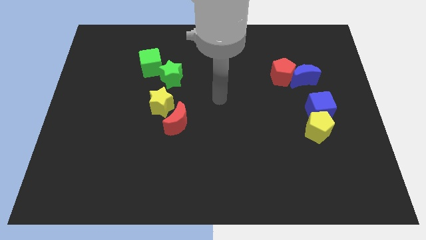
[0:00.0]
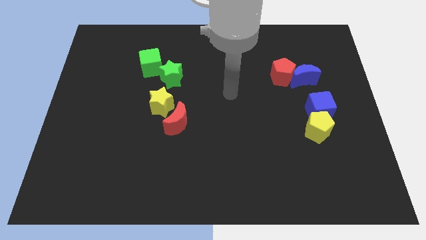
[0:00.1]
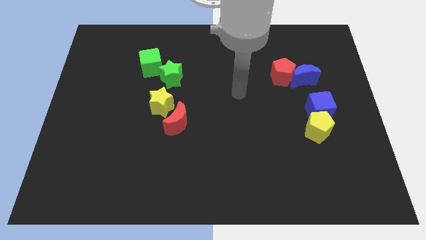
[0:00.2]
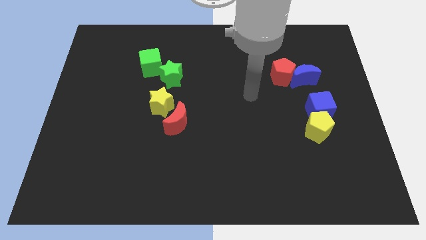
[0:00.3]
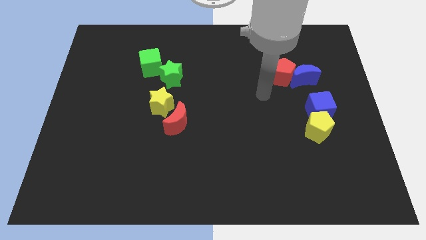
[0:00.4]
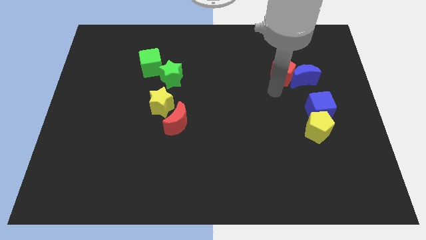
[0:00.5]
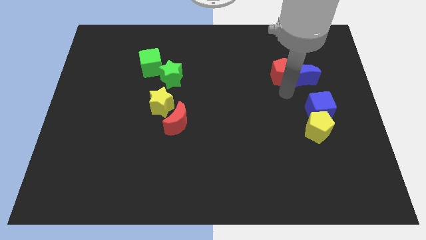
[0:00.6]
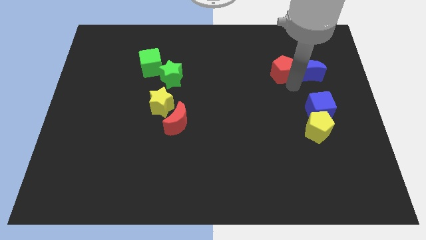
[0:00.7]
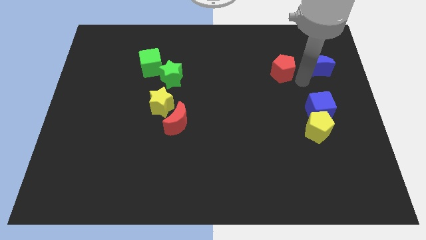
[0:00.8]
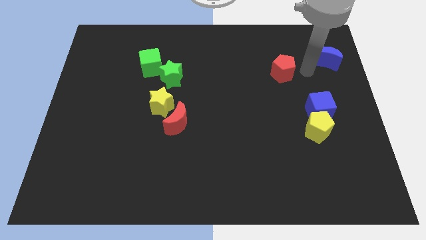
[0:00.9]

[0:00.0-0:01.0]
pull the red pentagon apart from the blue moon

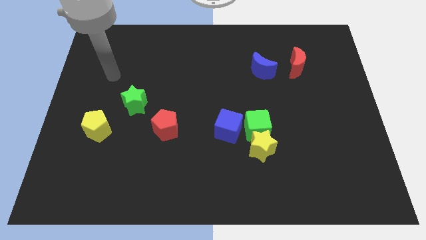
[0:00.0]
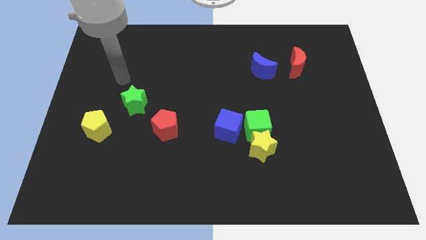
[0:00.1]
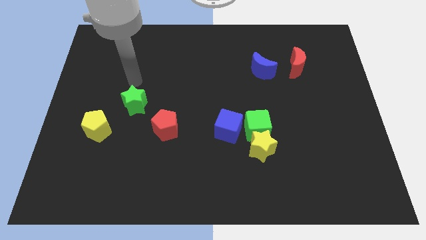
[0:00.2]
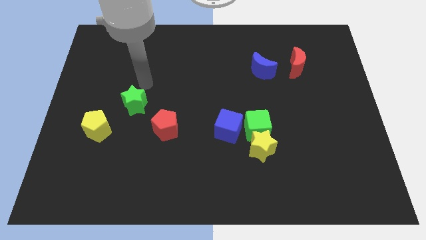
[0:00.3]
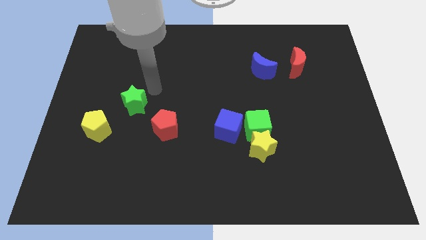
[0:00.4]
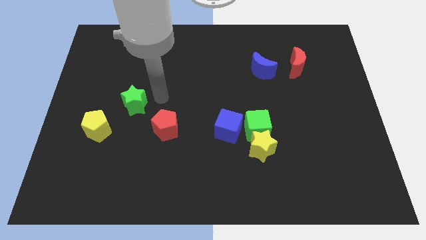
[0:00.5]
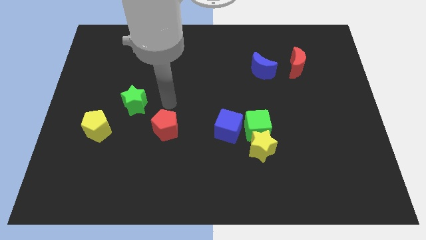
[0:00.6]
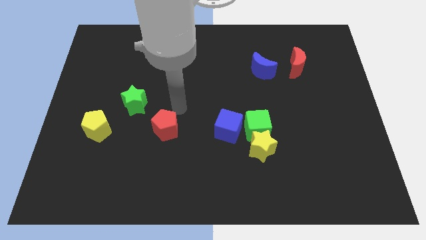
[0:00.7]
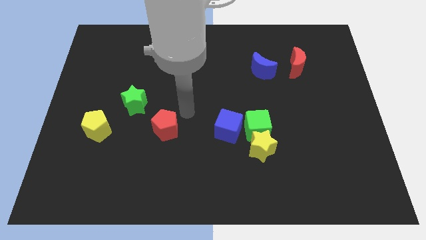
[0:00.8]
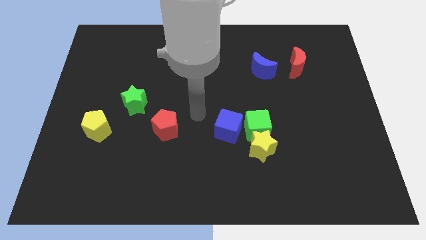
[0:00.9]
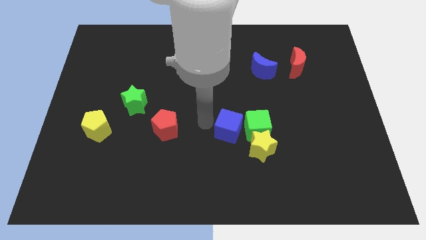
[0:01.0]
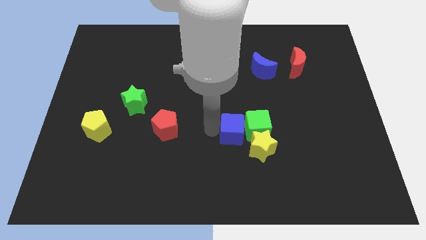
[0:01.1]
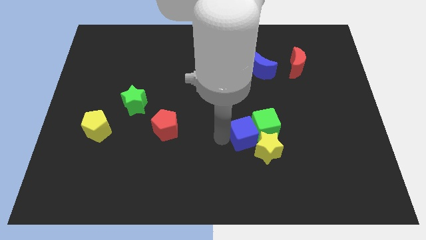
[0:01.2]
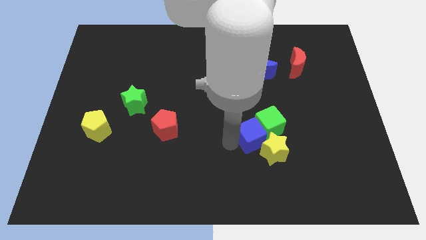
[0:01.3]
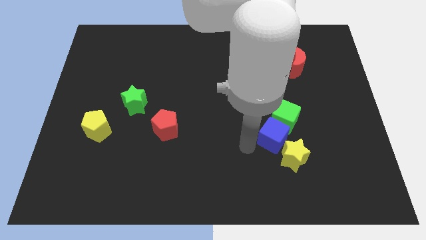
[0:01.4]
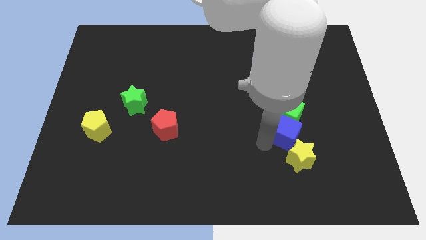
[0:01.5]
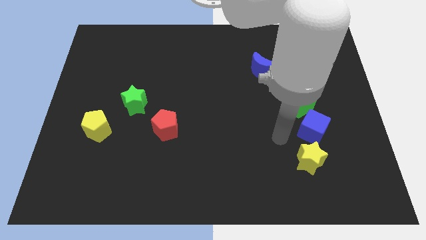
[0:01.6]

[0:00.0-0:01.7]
move the green cube away from the yellow star and blue cube

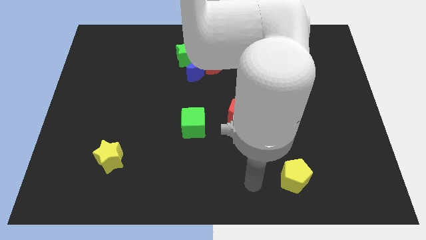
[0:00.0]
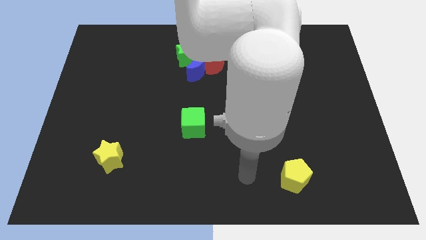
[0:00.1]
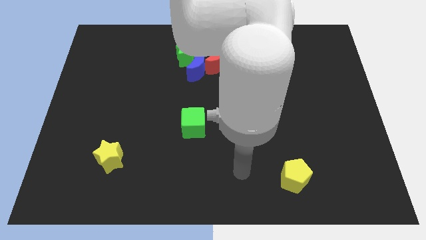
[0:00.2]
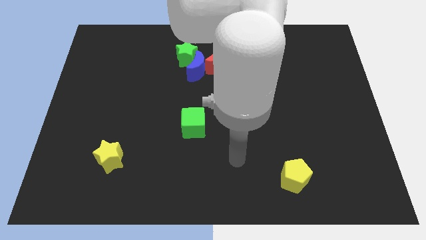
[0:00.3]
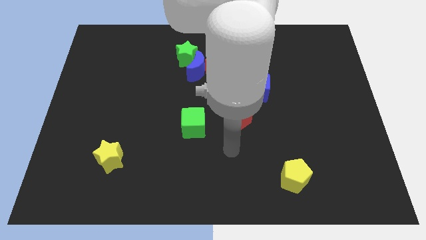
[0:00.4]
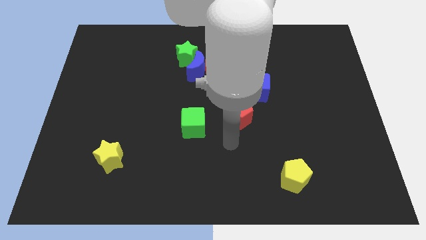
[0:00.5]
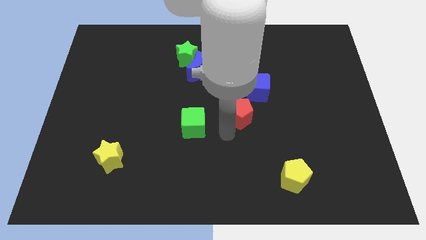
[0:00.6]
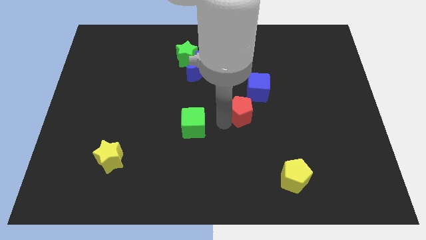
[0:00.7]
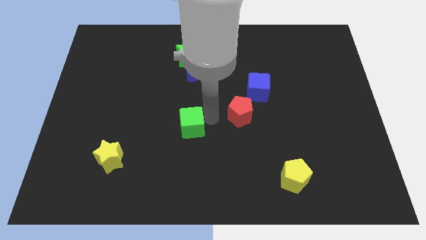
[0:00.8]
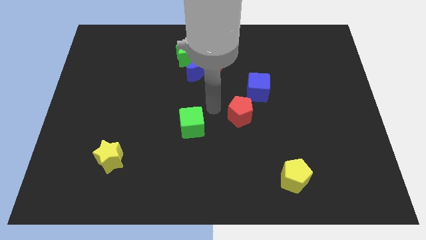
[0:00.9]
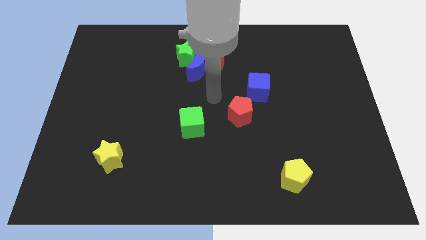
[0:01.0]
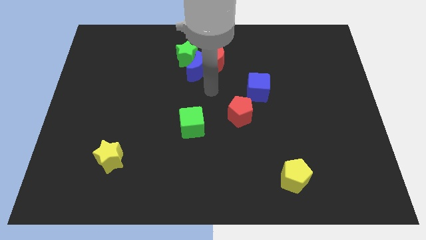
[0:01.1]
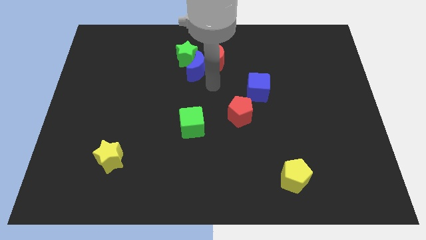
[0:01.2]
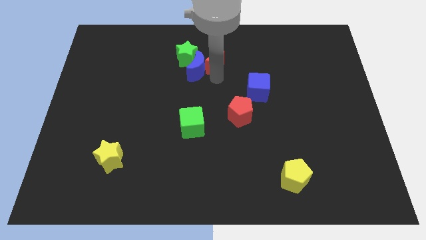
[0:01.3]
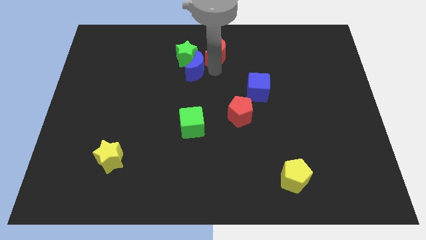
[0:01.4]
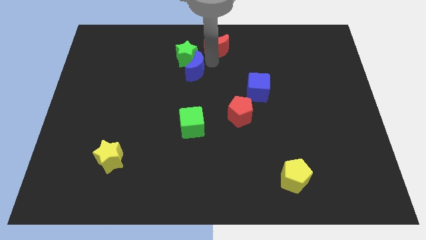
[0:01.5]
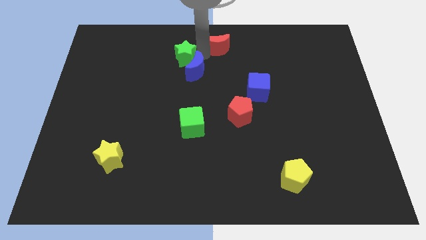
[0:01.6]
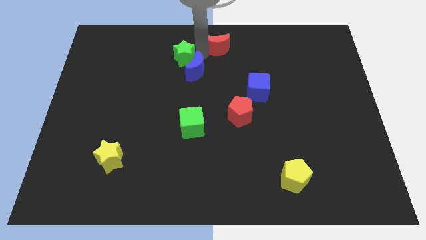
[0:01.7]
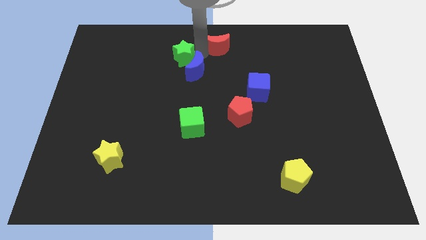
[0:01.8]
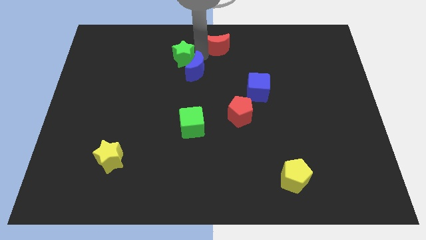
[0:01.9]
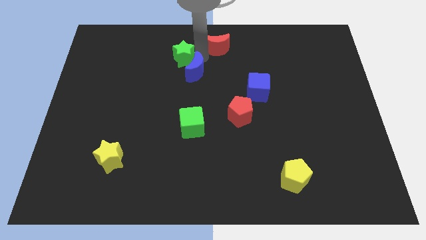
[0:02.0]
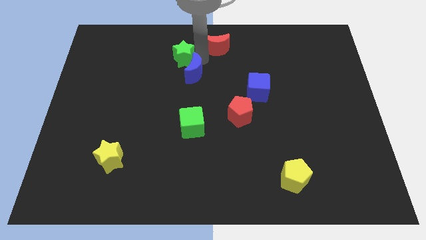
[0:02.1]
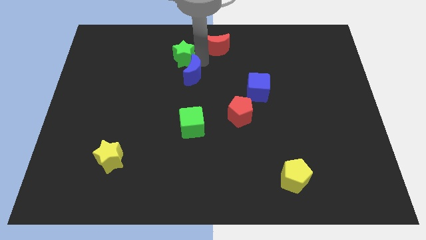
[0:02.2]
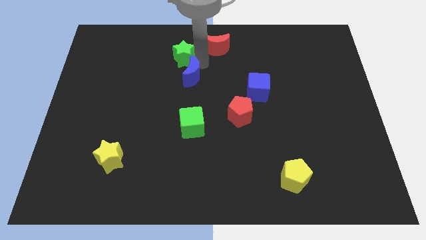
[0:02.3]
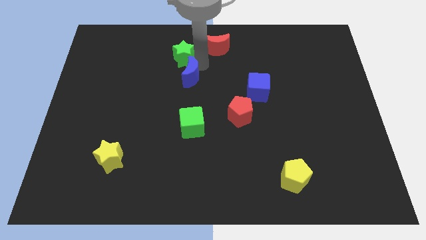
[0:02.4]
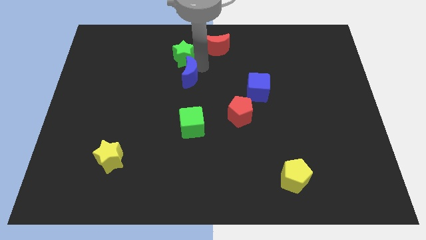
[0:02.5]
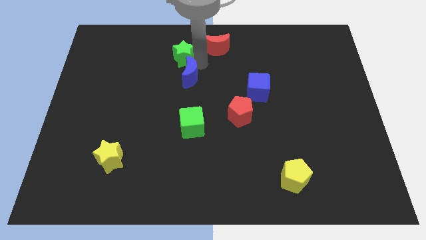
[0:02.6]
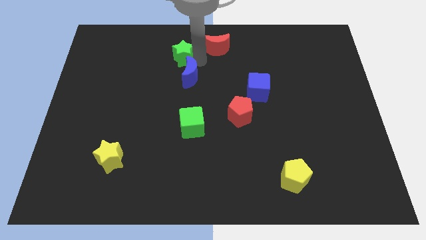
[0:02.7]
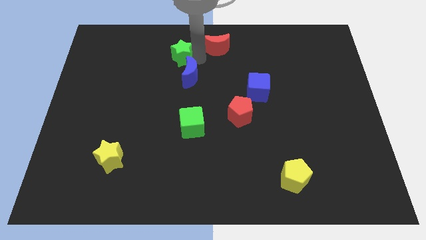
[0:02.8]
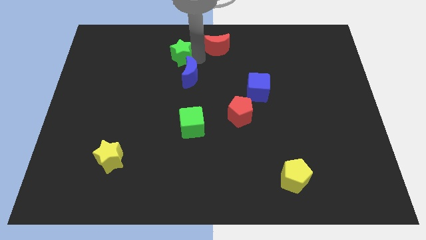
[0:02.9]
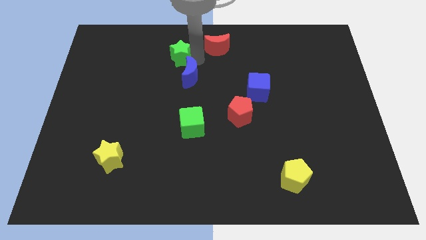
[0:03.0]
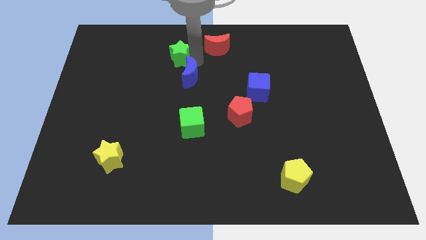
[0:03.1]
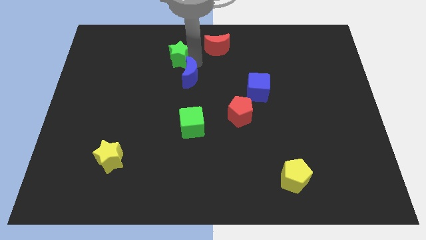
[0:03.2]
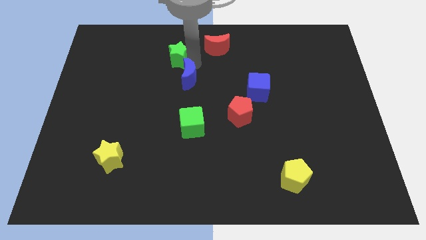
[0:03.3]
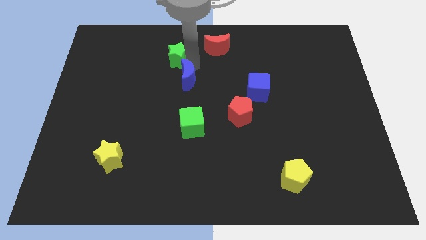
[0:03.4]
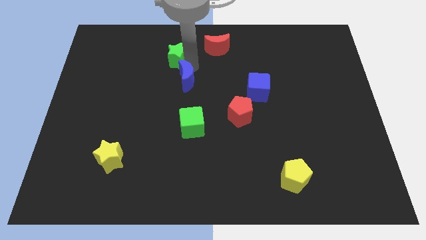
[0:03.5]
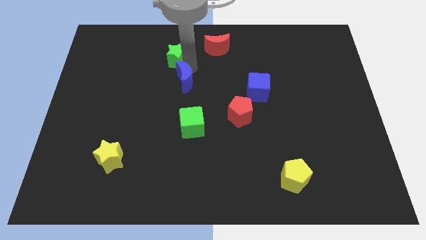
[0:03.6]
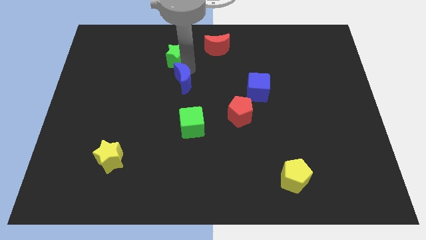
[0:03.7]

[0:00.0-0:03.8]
move the blue moon away from the green star and red moon

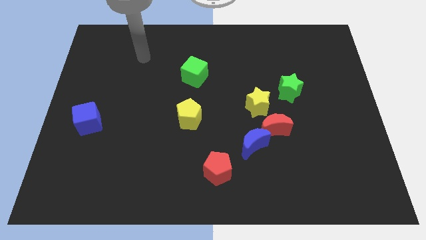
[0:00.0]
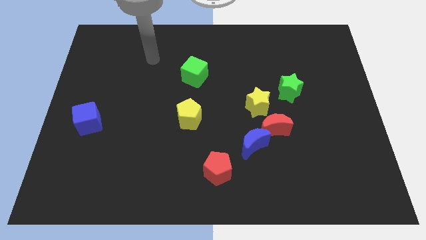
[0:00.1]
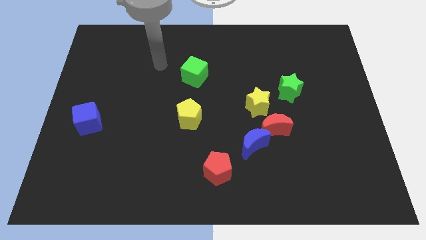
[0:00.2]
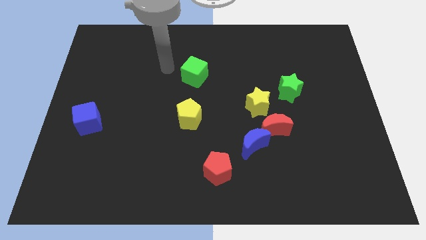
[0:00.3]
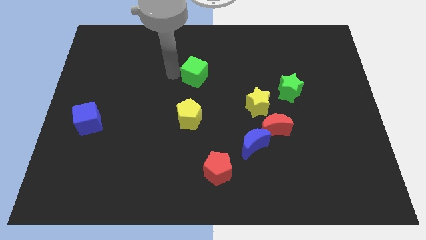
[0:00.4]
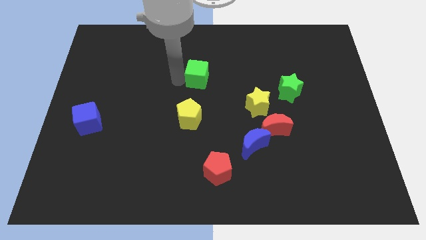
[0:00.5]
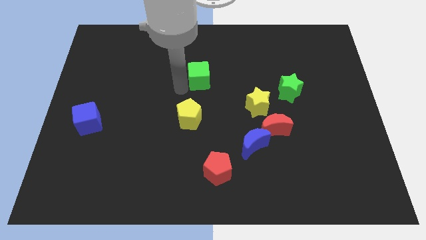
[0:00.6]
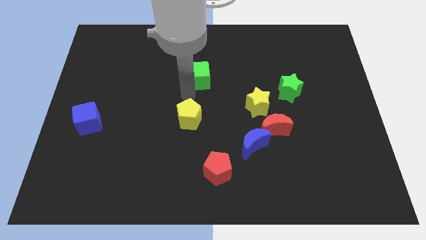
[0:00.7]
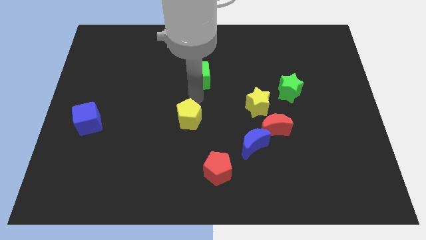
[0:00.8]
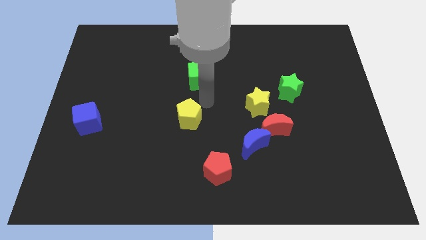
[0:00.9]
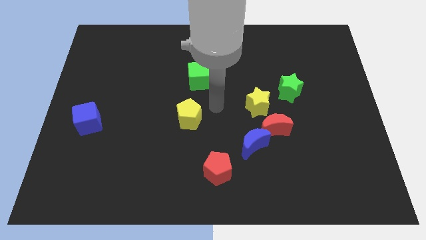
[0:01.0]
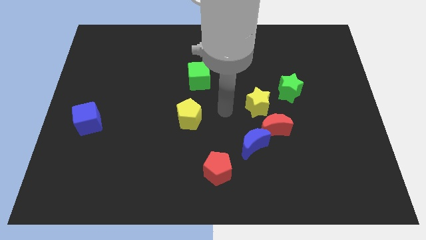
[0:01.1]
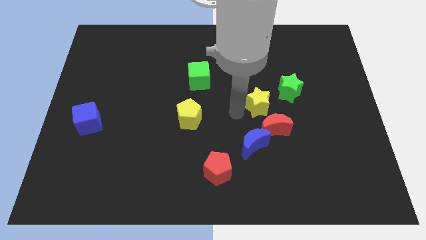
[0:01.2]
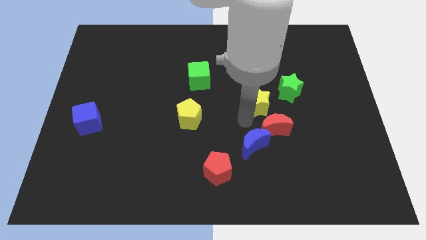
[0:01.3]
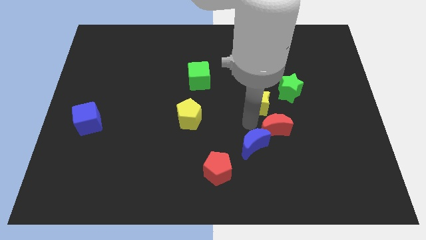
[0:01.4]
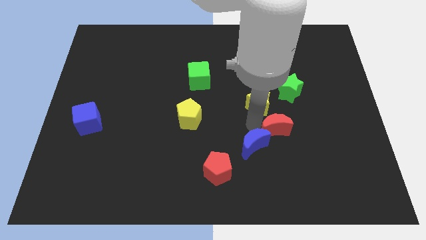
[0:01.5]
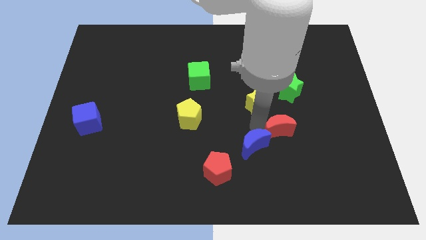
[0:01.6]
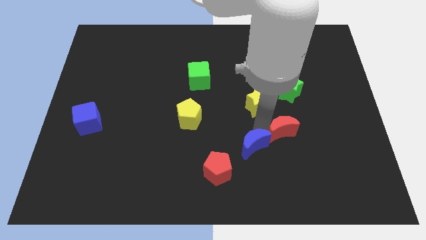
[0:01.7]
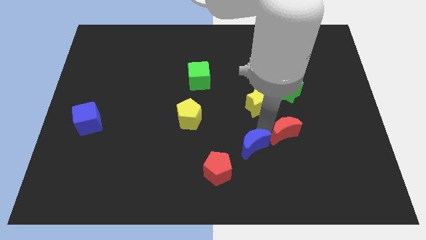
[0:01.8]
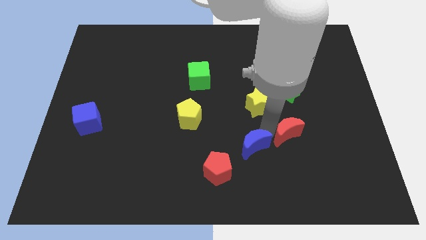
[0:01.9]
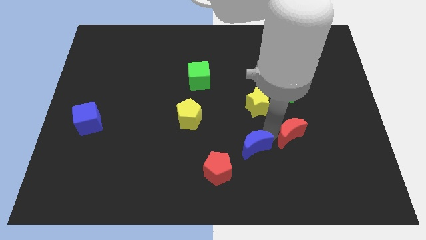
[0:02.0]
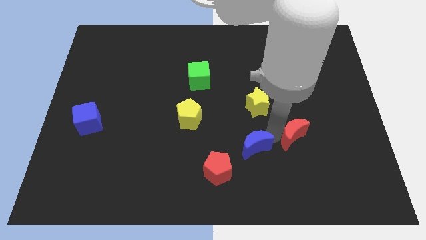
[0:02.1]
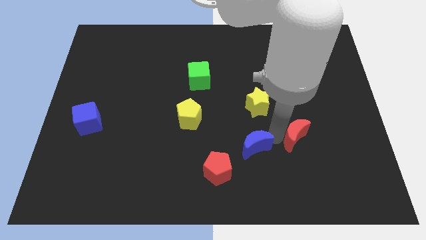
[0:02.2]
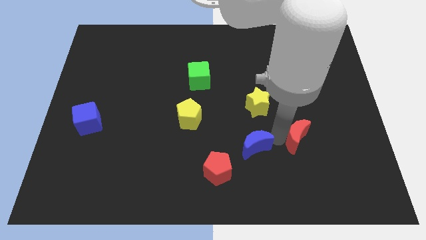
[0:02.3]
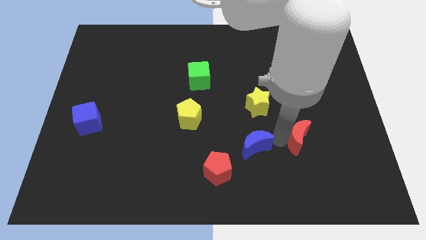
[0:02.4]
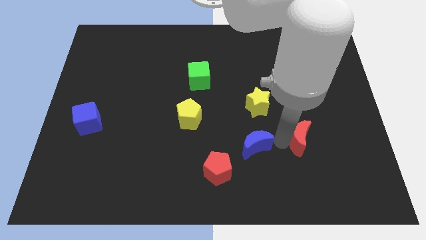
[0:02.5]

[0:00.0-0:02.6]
separate the red moon from the blue moon and yellow star
